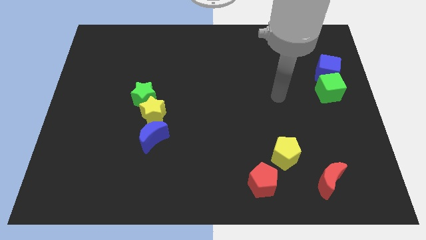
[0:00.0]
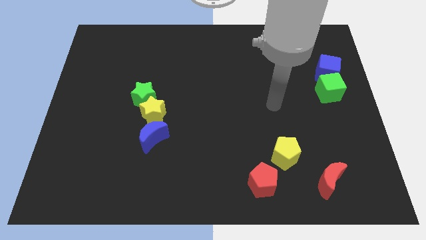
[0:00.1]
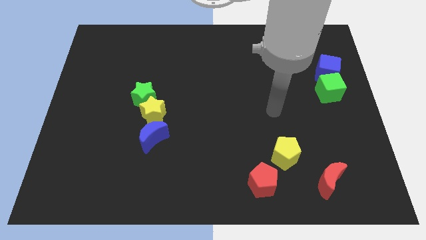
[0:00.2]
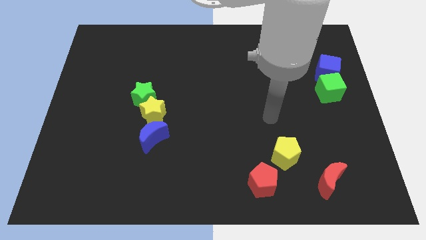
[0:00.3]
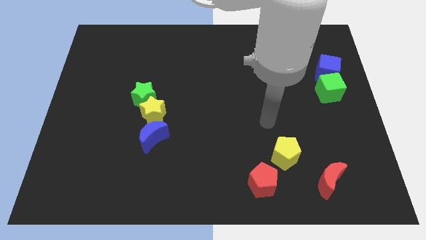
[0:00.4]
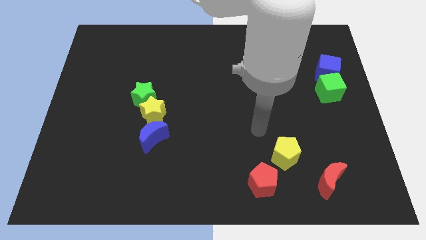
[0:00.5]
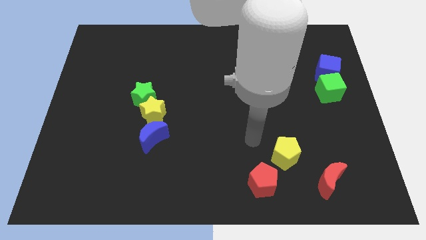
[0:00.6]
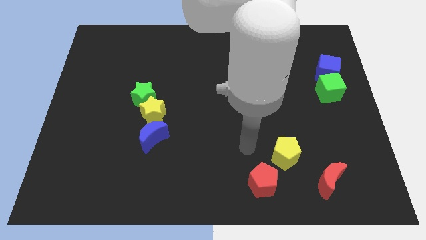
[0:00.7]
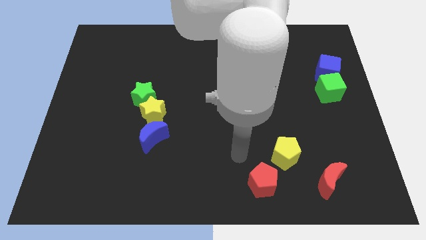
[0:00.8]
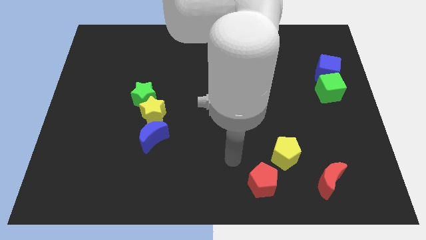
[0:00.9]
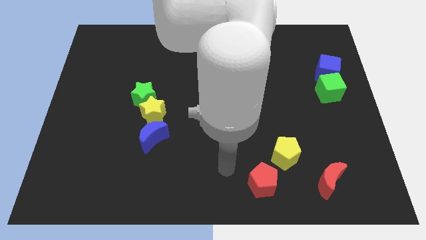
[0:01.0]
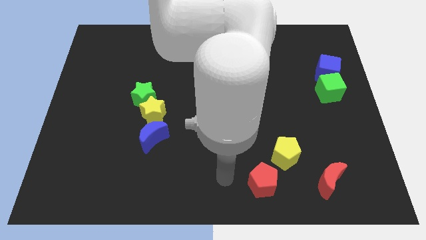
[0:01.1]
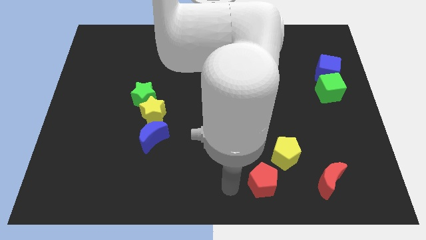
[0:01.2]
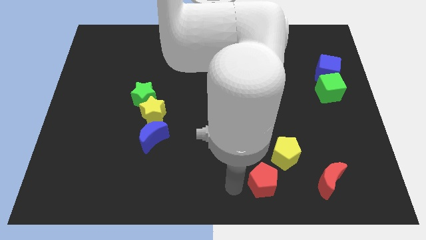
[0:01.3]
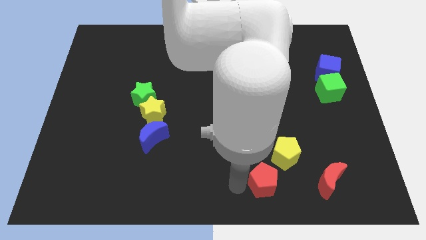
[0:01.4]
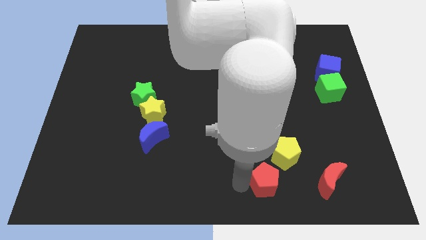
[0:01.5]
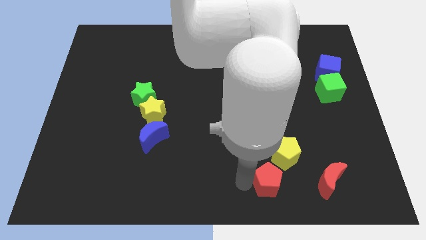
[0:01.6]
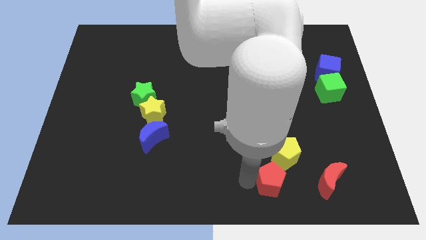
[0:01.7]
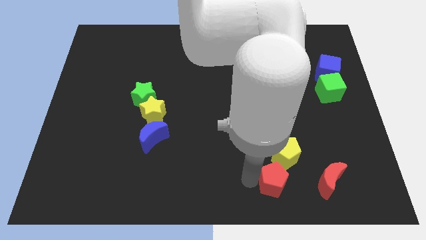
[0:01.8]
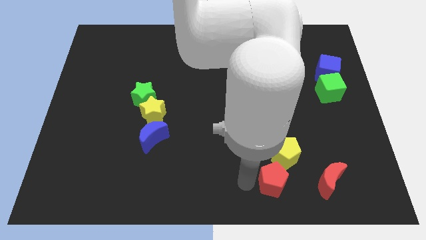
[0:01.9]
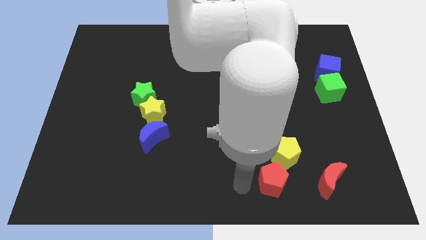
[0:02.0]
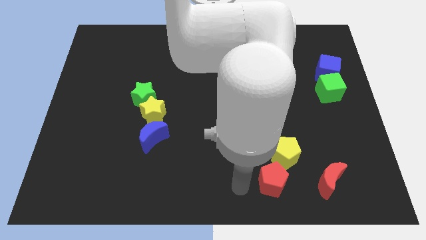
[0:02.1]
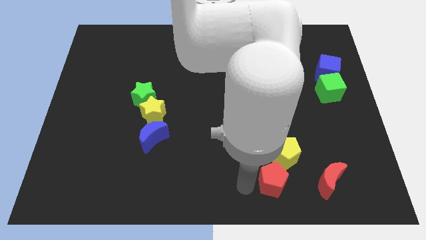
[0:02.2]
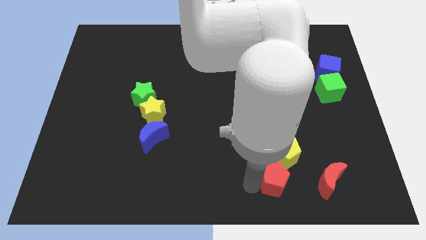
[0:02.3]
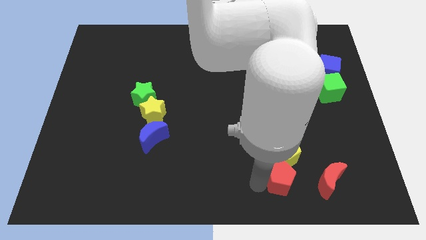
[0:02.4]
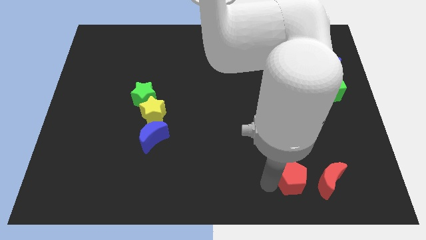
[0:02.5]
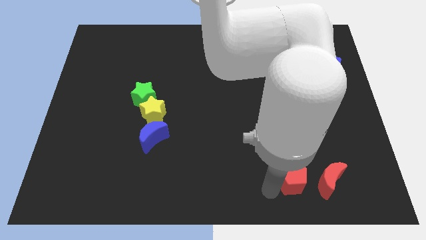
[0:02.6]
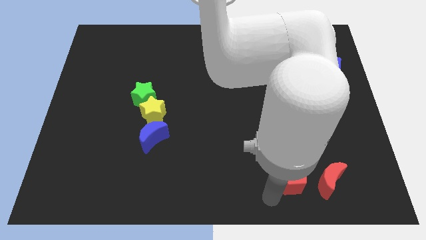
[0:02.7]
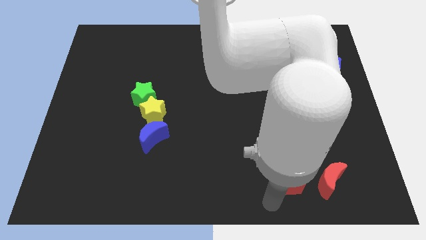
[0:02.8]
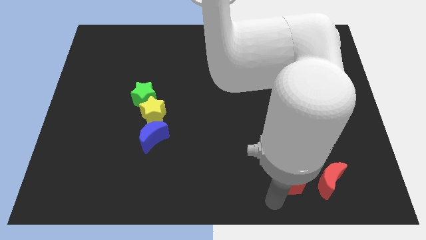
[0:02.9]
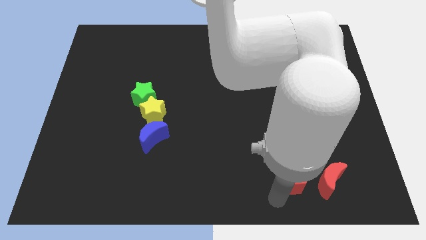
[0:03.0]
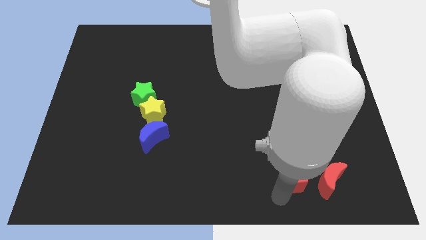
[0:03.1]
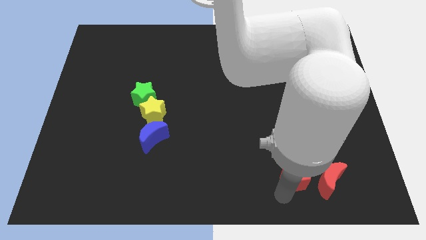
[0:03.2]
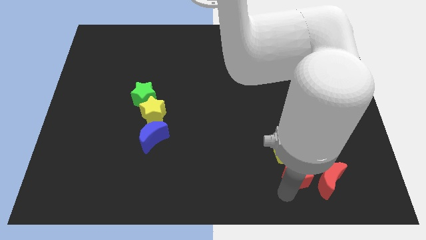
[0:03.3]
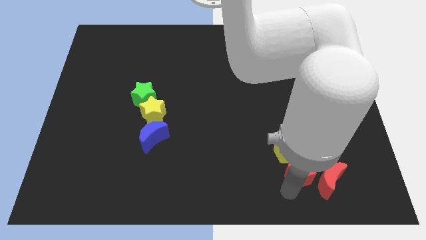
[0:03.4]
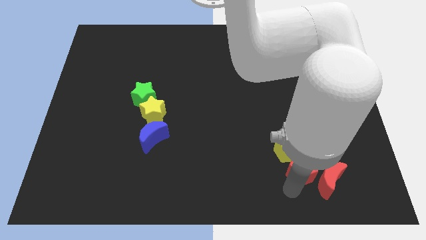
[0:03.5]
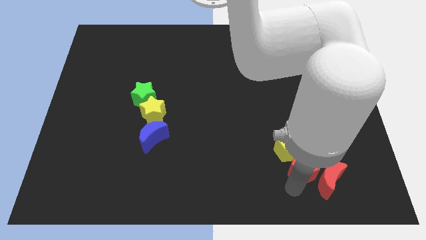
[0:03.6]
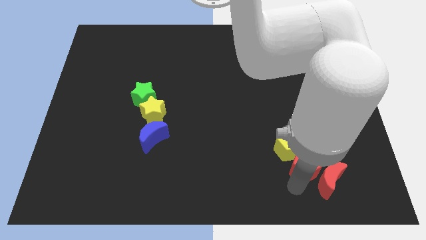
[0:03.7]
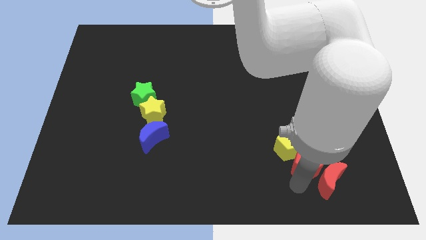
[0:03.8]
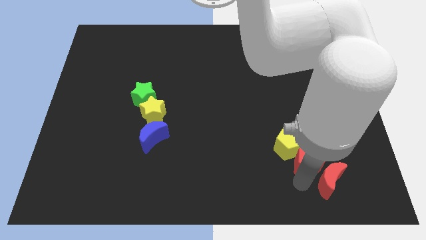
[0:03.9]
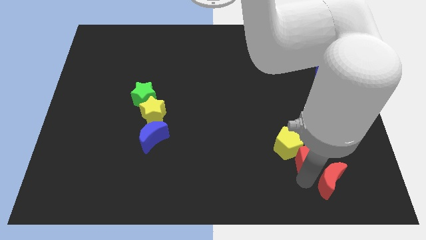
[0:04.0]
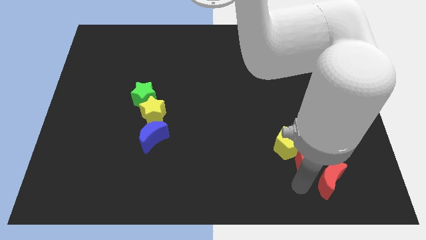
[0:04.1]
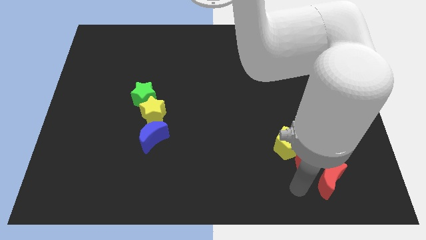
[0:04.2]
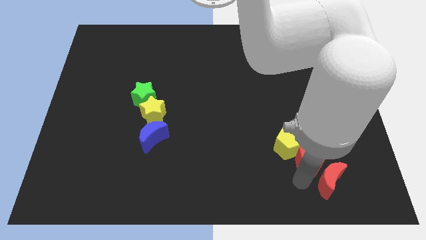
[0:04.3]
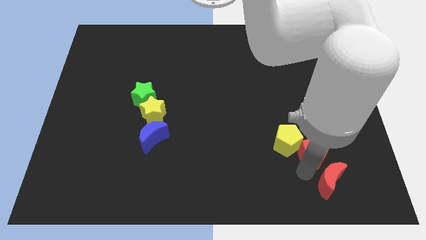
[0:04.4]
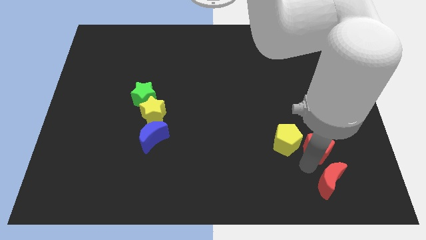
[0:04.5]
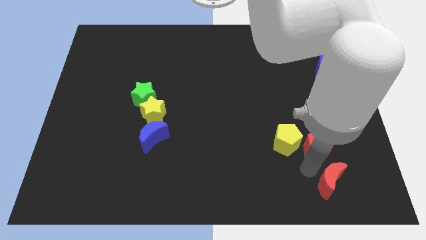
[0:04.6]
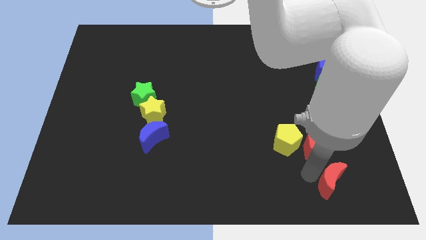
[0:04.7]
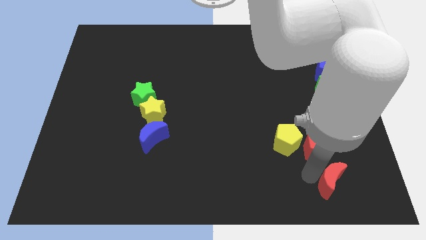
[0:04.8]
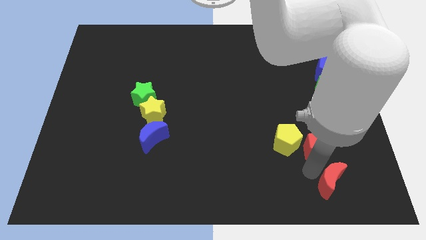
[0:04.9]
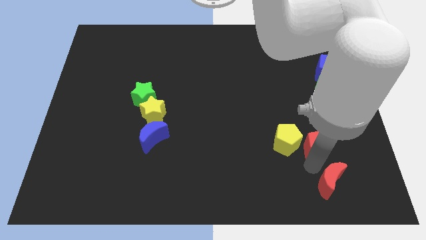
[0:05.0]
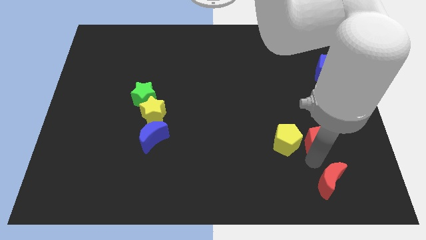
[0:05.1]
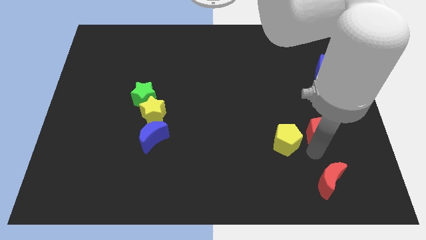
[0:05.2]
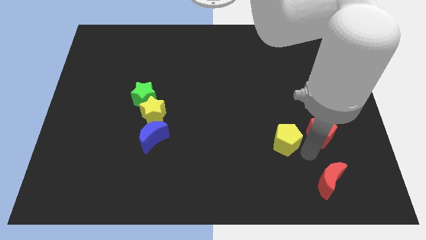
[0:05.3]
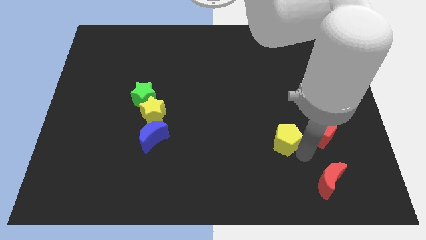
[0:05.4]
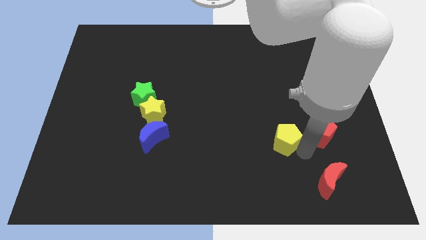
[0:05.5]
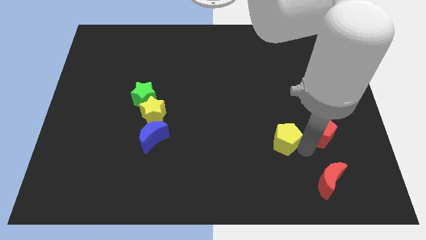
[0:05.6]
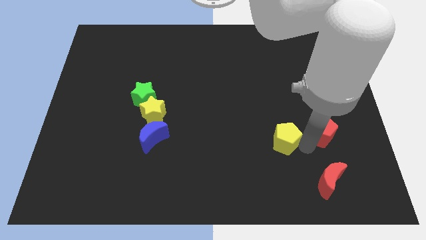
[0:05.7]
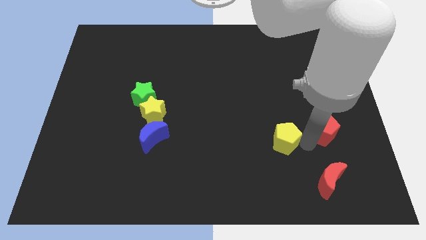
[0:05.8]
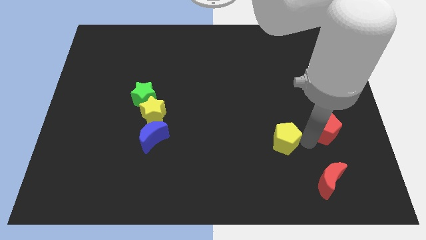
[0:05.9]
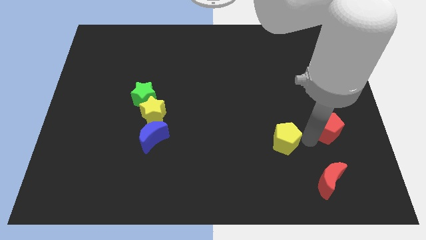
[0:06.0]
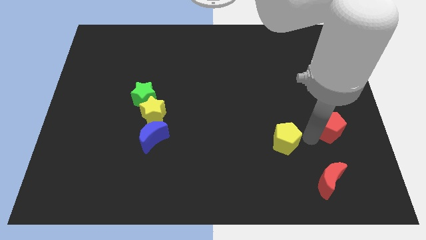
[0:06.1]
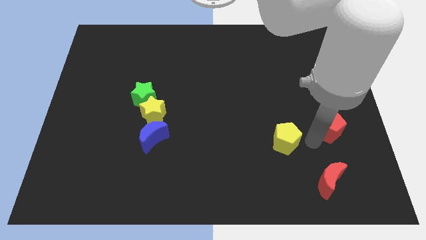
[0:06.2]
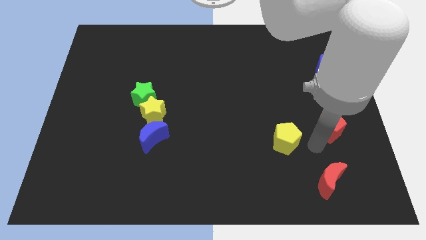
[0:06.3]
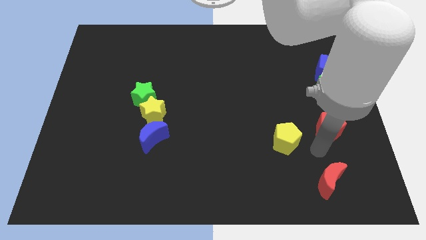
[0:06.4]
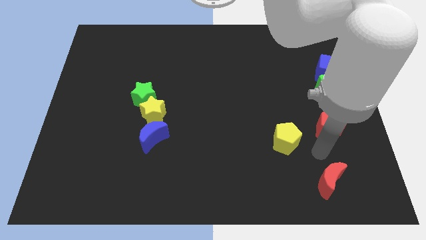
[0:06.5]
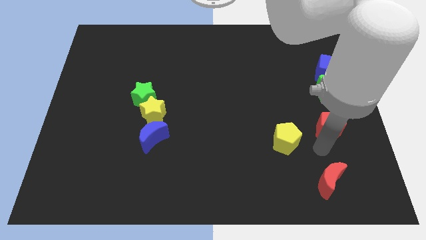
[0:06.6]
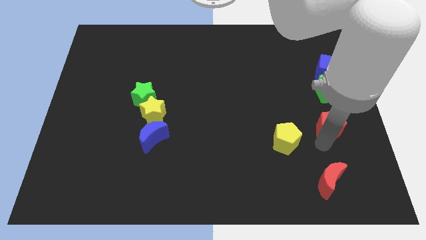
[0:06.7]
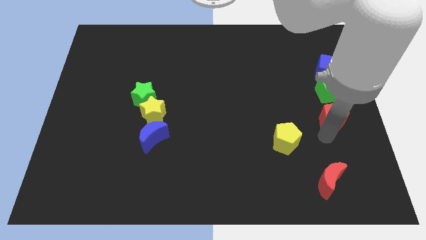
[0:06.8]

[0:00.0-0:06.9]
slide the red pentagon below the blue cube

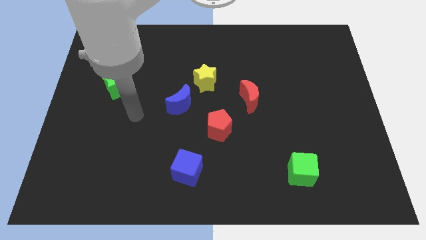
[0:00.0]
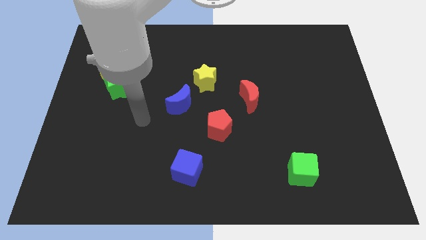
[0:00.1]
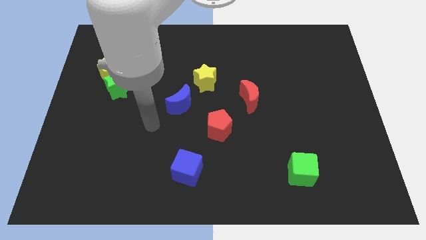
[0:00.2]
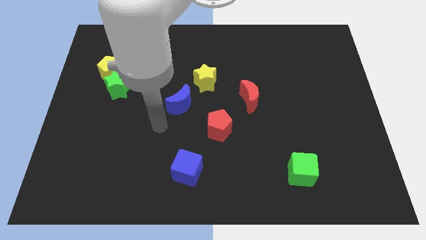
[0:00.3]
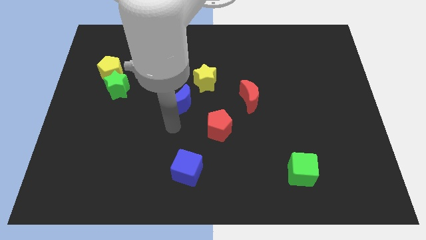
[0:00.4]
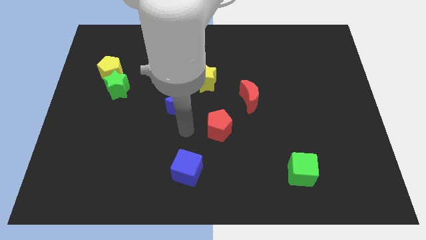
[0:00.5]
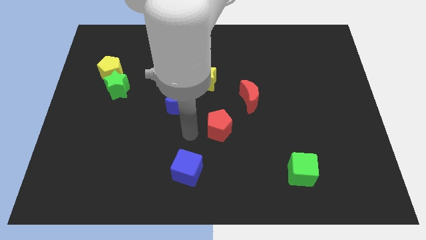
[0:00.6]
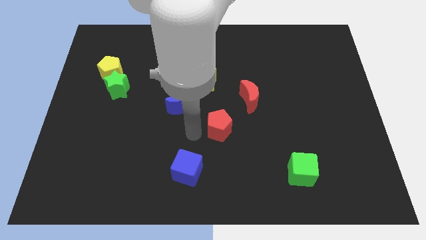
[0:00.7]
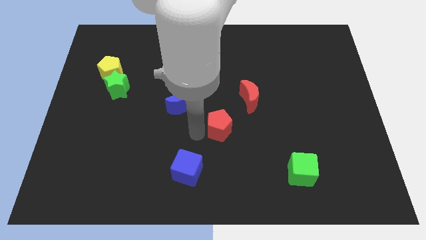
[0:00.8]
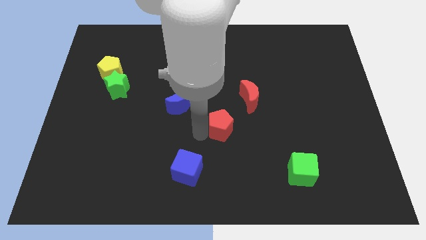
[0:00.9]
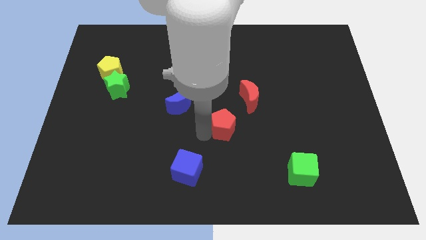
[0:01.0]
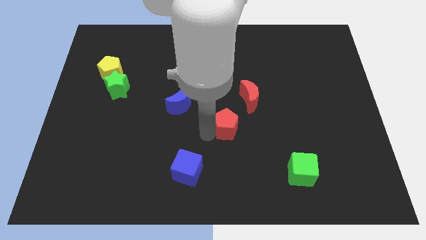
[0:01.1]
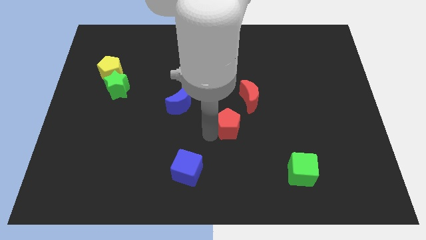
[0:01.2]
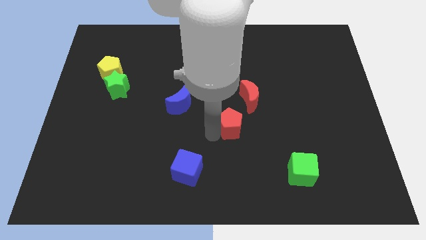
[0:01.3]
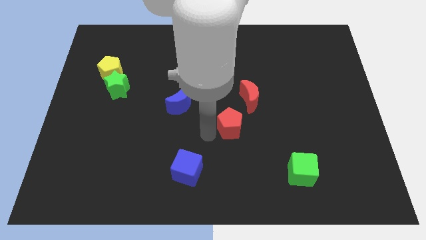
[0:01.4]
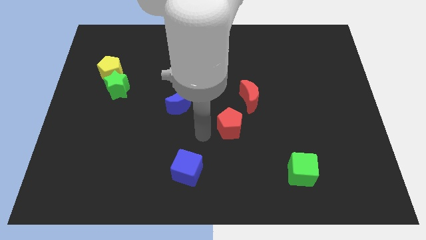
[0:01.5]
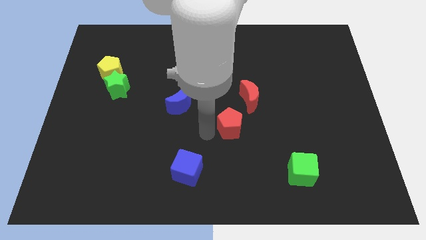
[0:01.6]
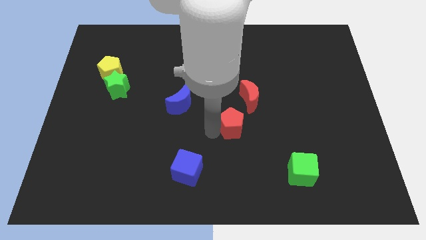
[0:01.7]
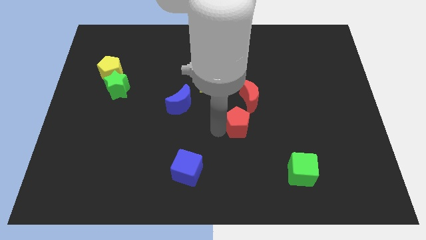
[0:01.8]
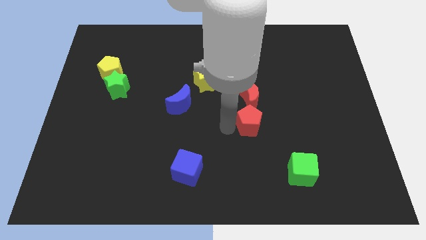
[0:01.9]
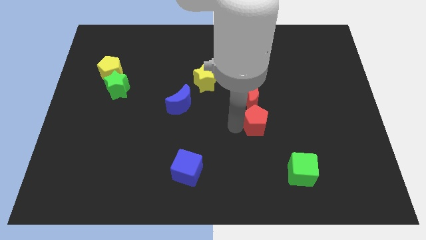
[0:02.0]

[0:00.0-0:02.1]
move the red pentagon to the bottom right side of the red moon
